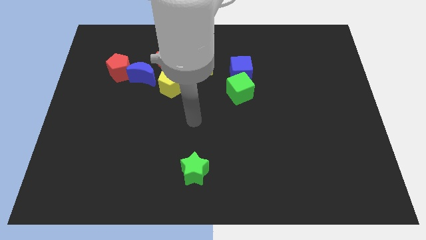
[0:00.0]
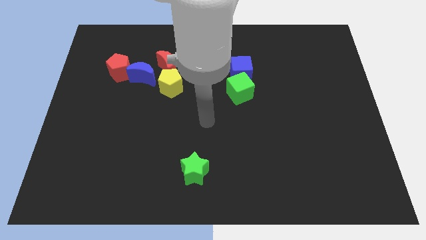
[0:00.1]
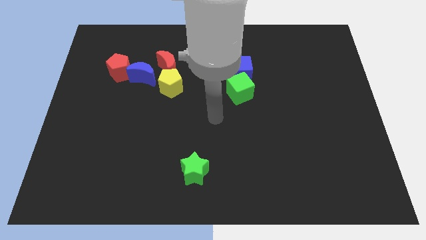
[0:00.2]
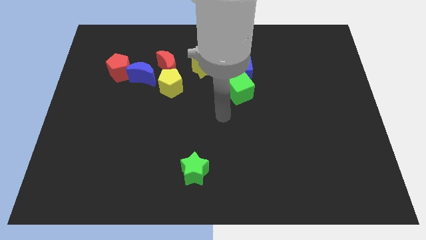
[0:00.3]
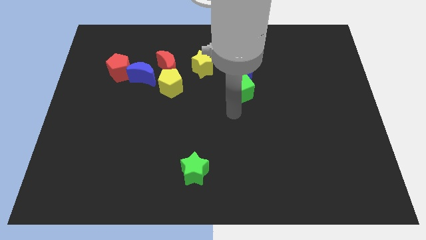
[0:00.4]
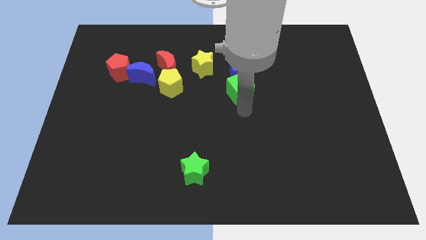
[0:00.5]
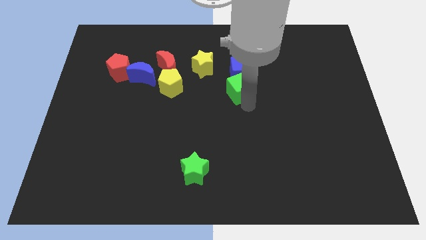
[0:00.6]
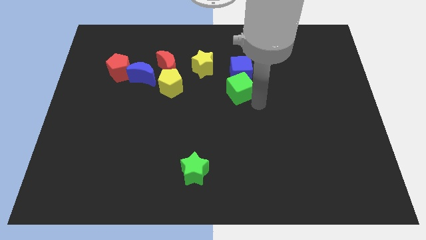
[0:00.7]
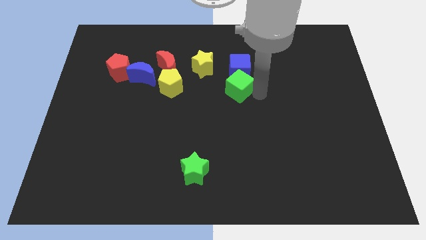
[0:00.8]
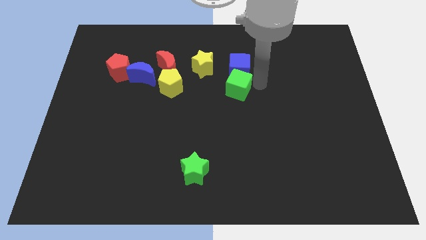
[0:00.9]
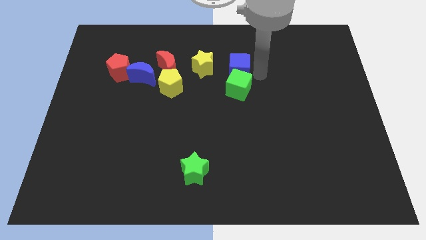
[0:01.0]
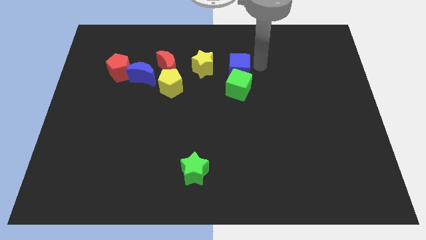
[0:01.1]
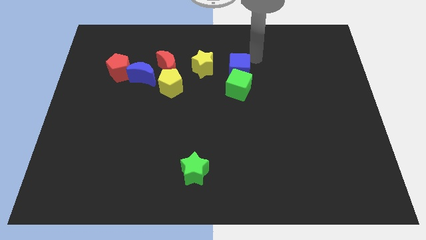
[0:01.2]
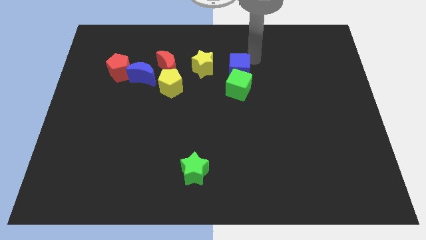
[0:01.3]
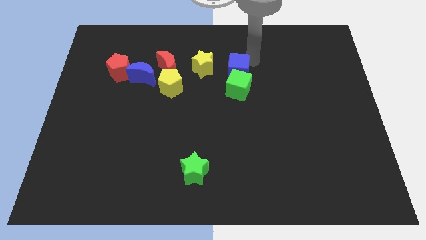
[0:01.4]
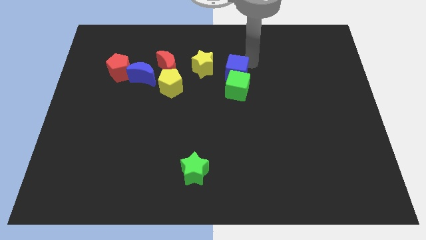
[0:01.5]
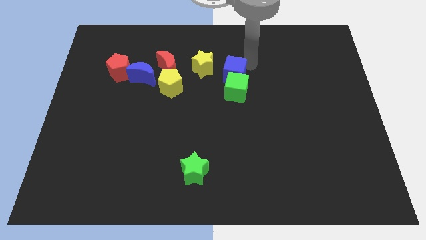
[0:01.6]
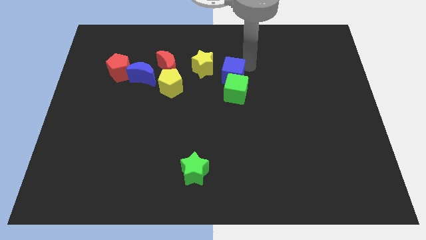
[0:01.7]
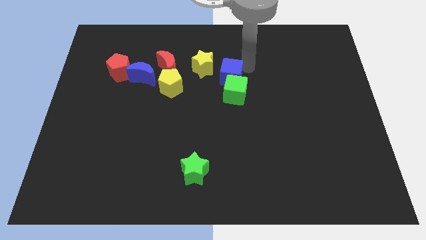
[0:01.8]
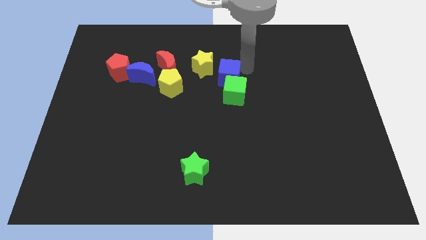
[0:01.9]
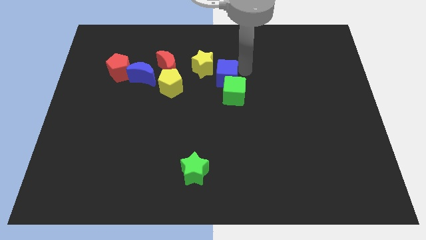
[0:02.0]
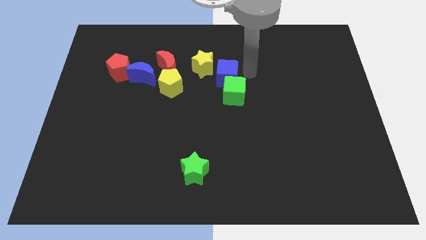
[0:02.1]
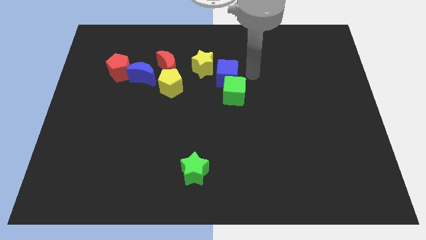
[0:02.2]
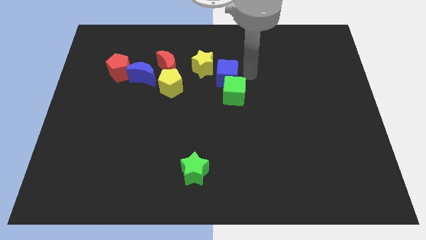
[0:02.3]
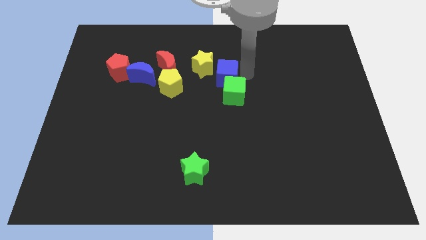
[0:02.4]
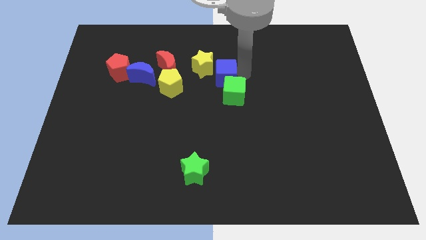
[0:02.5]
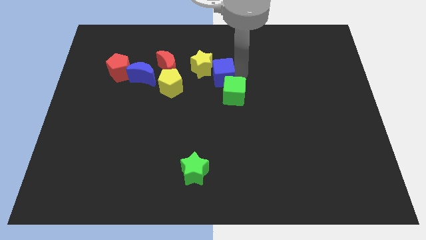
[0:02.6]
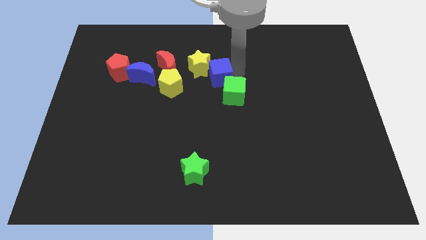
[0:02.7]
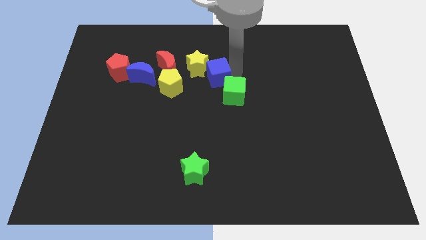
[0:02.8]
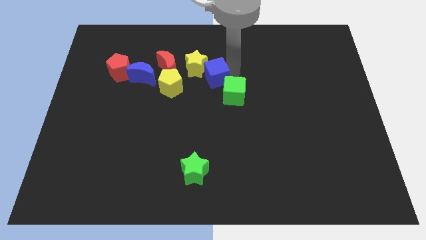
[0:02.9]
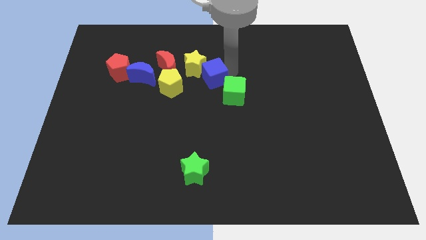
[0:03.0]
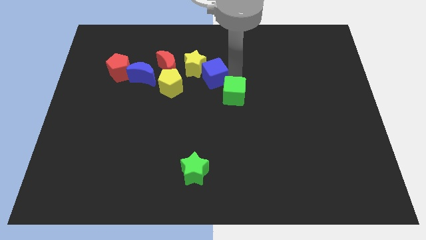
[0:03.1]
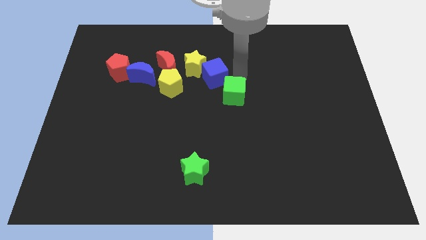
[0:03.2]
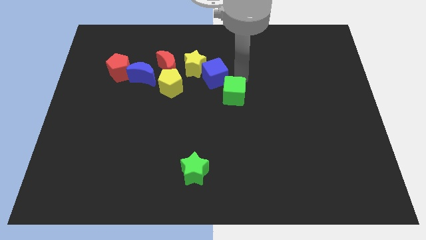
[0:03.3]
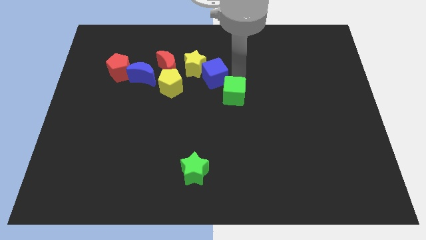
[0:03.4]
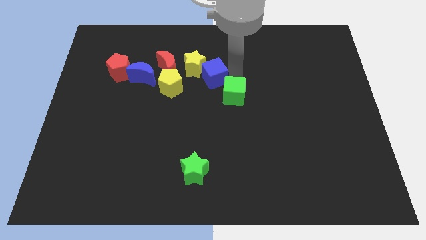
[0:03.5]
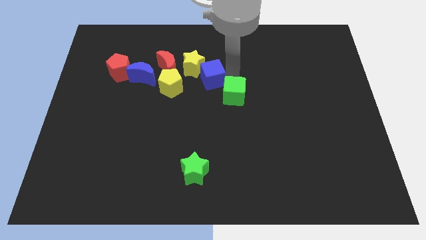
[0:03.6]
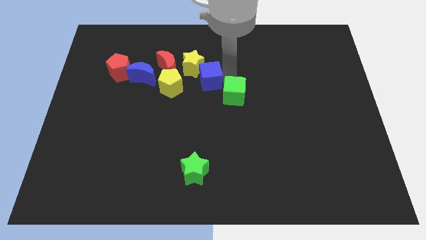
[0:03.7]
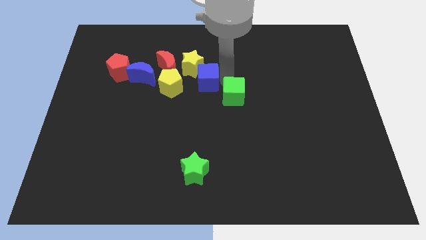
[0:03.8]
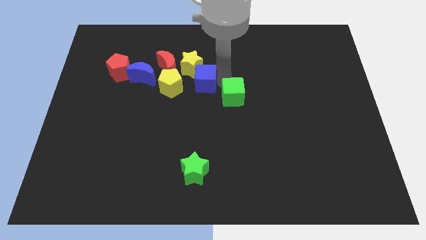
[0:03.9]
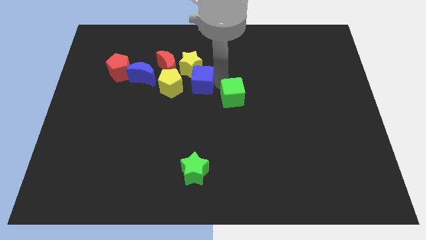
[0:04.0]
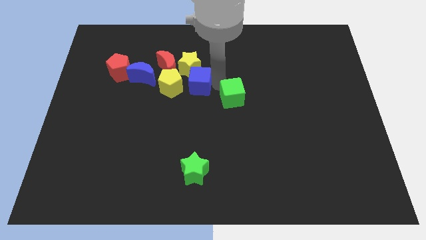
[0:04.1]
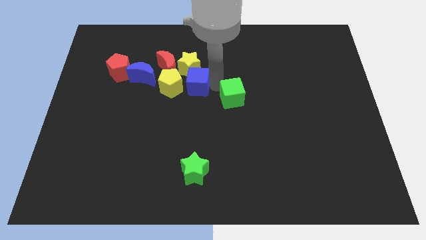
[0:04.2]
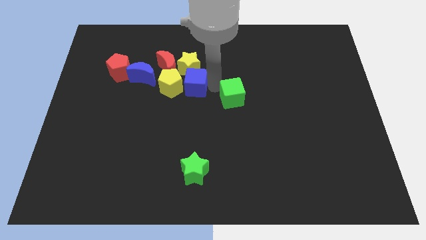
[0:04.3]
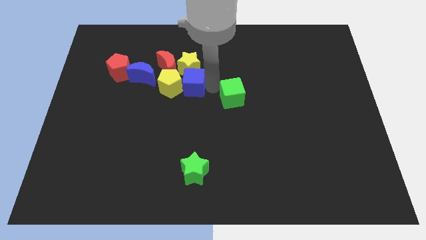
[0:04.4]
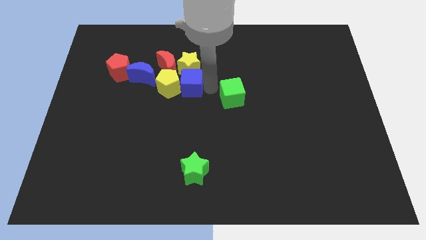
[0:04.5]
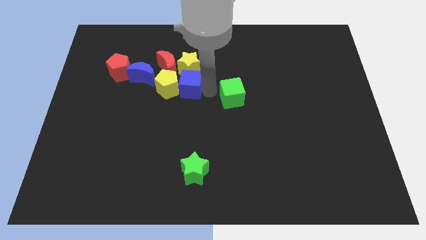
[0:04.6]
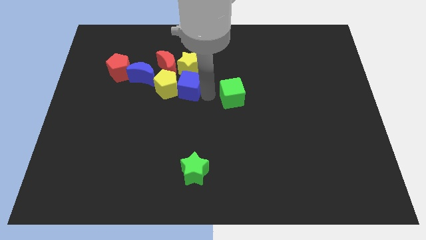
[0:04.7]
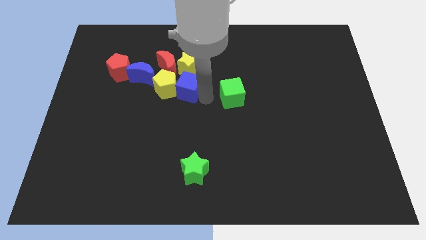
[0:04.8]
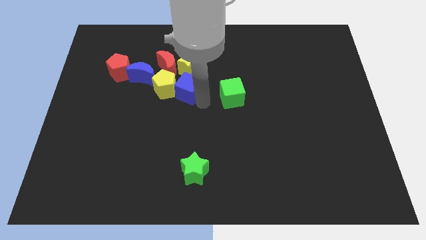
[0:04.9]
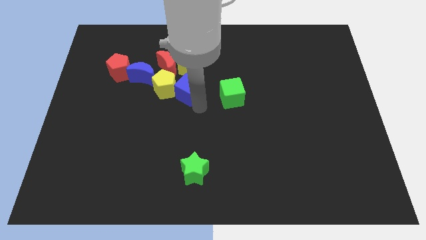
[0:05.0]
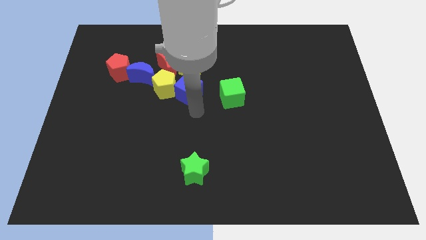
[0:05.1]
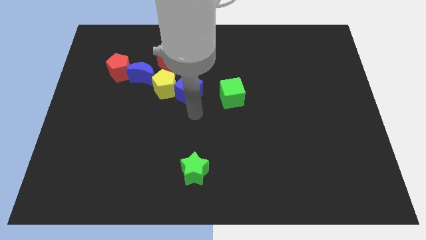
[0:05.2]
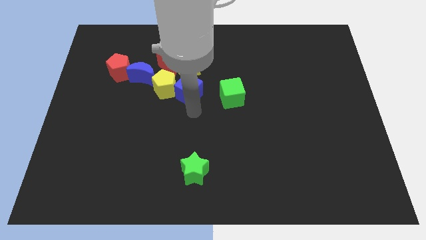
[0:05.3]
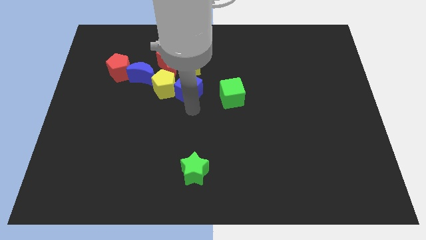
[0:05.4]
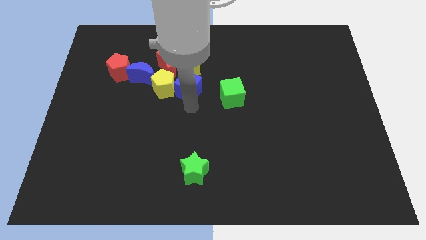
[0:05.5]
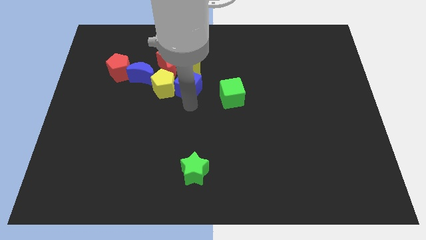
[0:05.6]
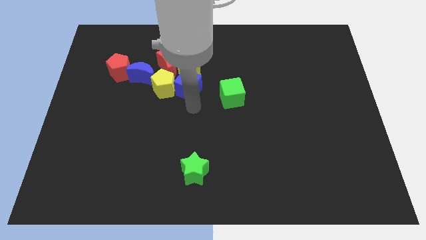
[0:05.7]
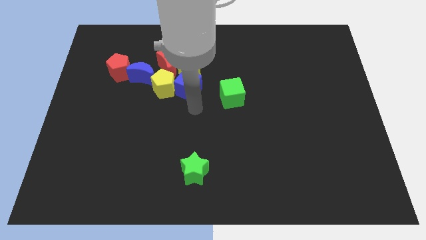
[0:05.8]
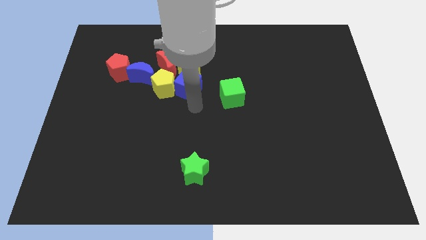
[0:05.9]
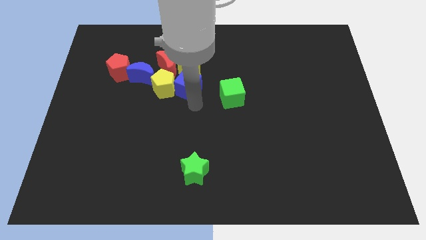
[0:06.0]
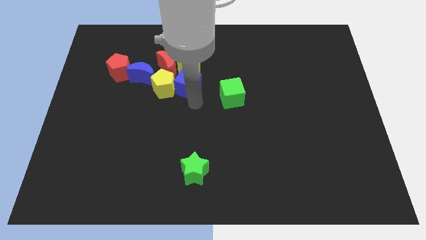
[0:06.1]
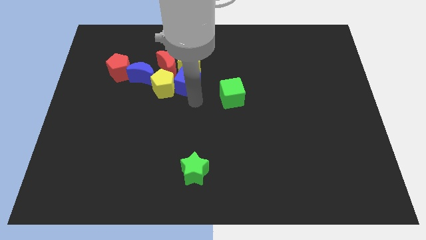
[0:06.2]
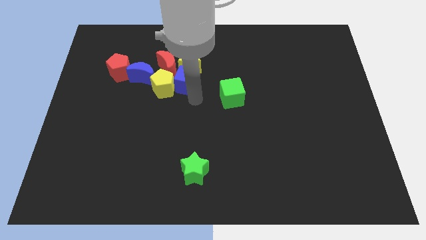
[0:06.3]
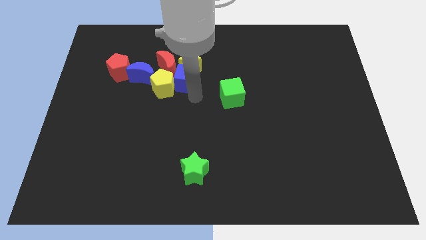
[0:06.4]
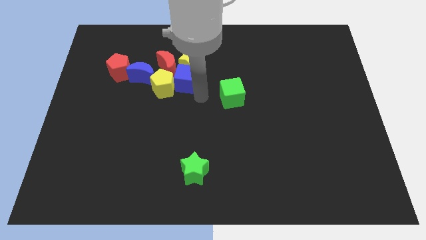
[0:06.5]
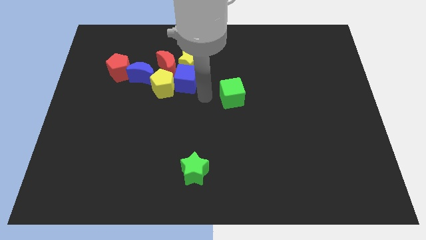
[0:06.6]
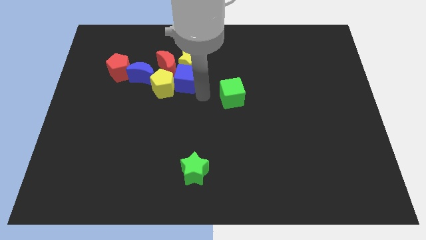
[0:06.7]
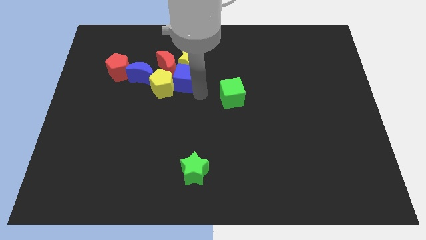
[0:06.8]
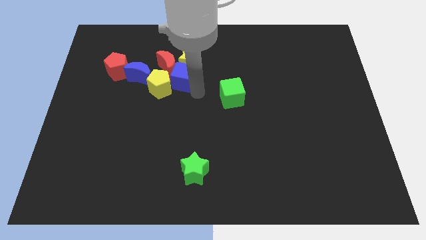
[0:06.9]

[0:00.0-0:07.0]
push the blue cube to the red moon
